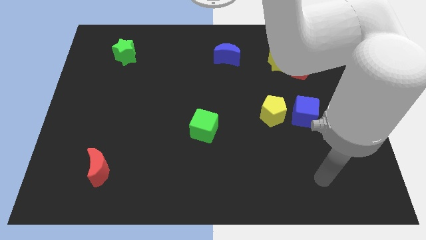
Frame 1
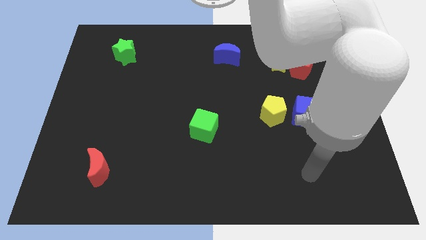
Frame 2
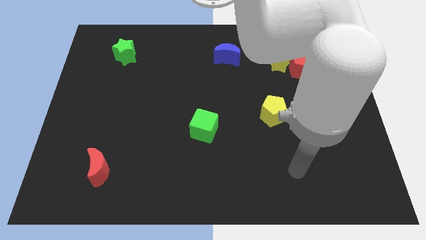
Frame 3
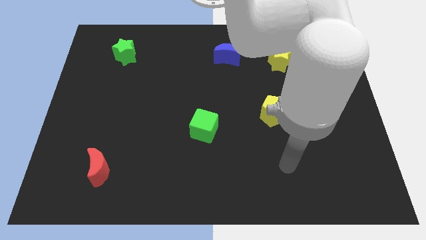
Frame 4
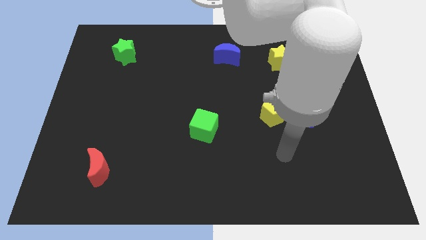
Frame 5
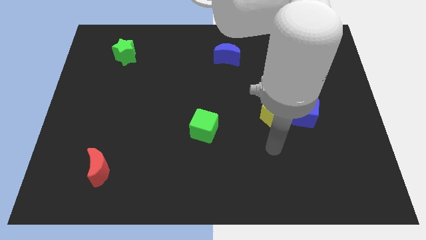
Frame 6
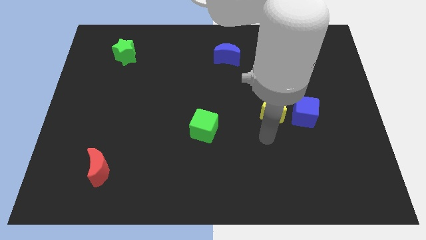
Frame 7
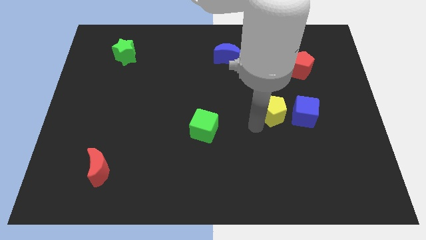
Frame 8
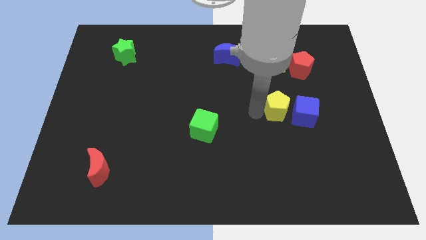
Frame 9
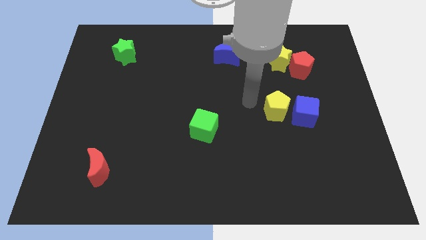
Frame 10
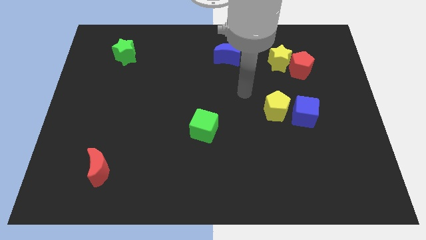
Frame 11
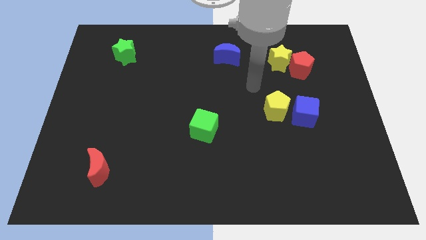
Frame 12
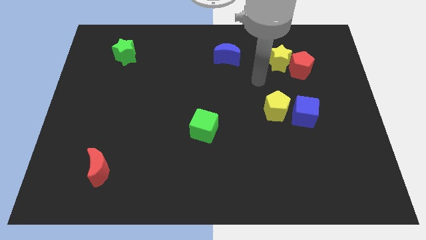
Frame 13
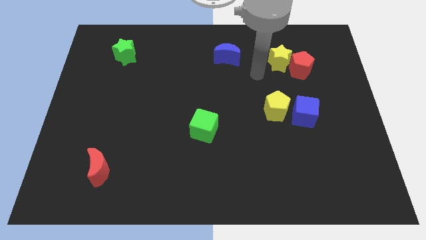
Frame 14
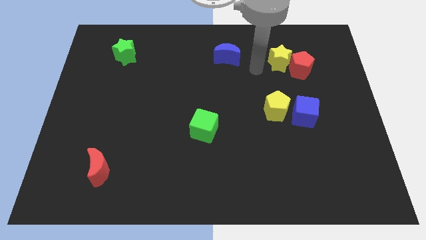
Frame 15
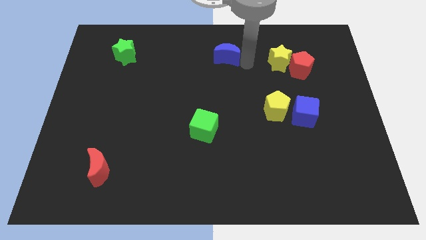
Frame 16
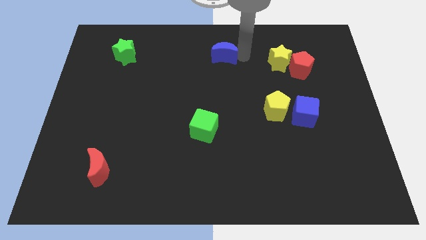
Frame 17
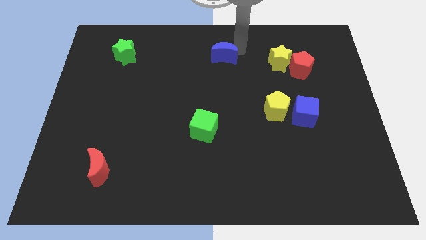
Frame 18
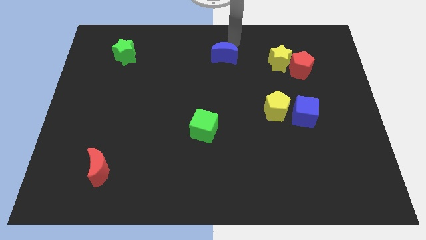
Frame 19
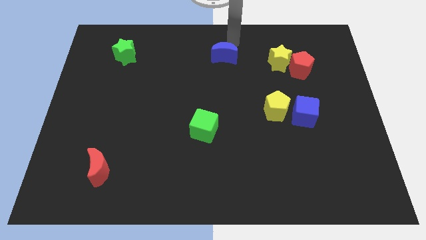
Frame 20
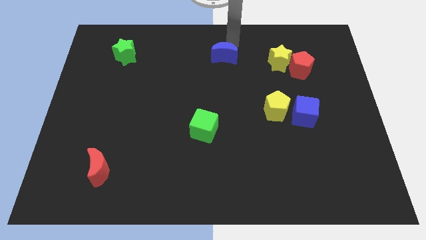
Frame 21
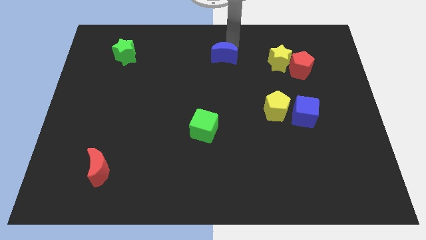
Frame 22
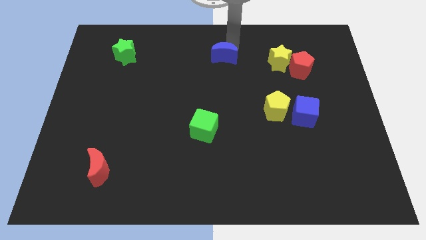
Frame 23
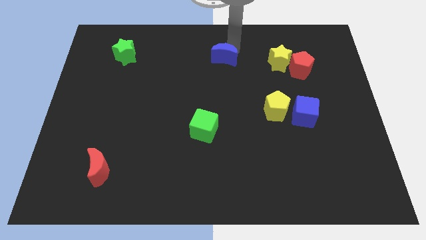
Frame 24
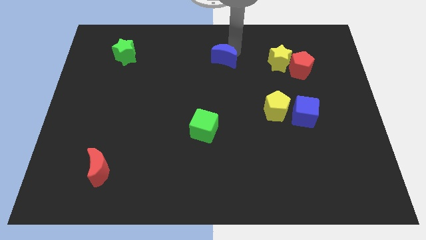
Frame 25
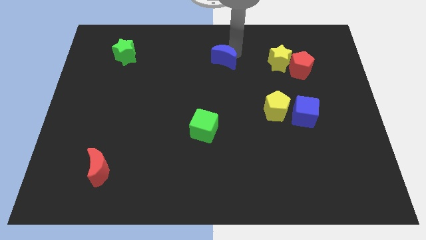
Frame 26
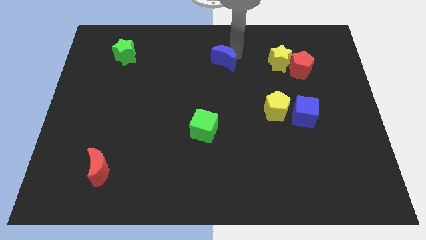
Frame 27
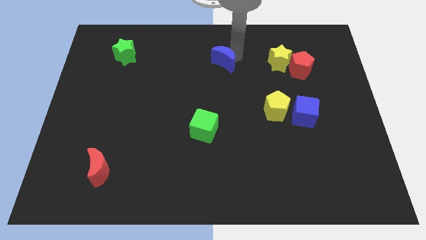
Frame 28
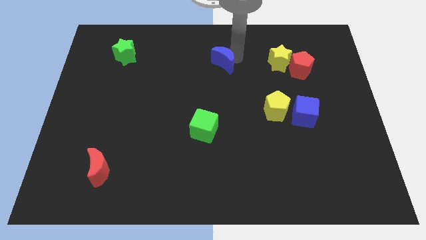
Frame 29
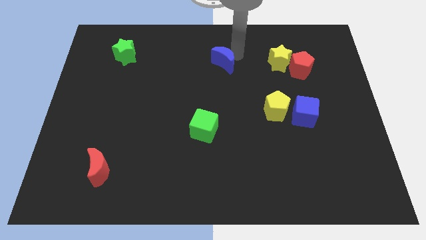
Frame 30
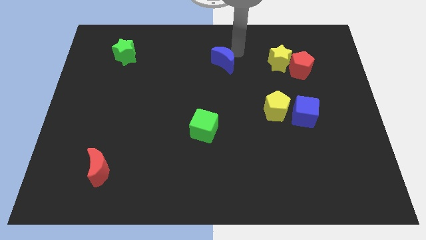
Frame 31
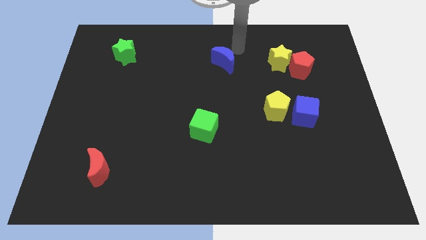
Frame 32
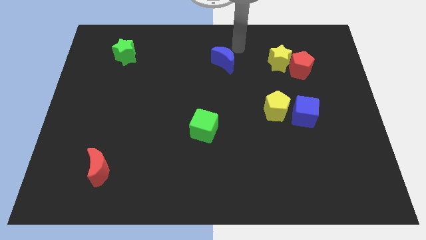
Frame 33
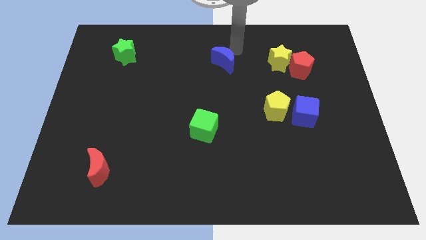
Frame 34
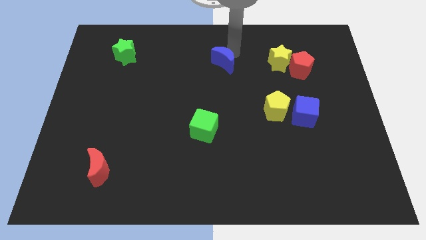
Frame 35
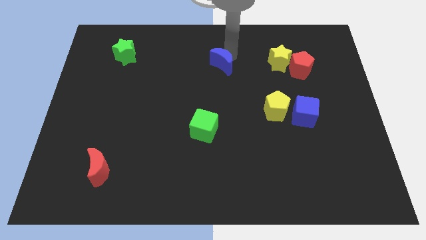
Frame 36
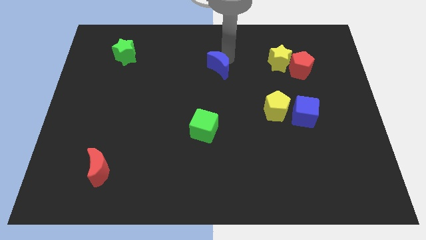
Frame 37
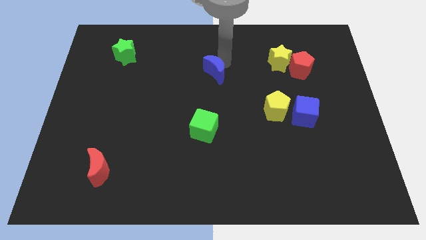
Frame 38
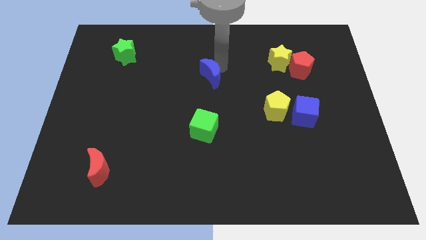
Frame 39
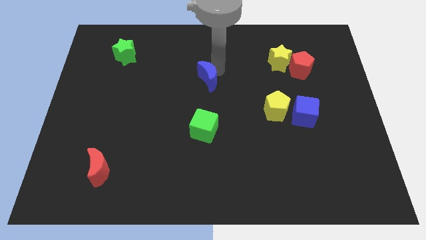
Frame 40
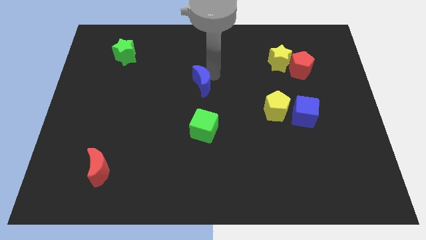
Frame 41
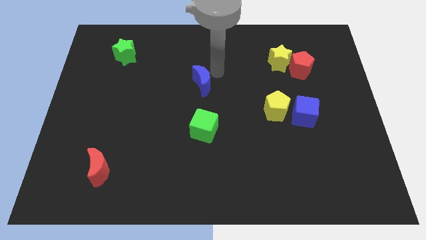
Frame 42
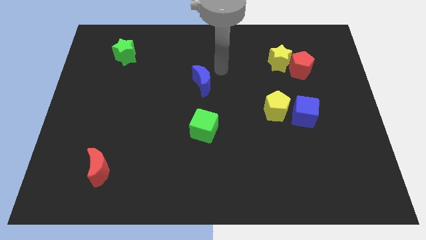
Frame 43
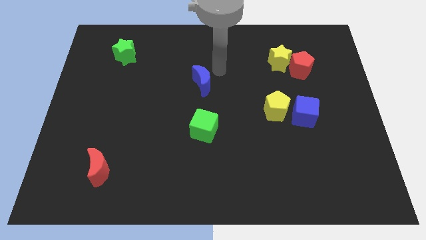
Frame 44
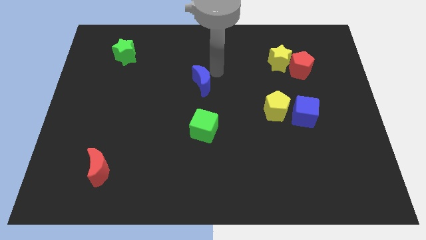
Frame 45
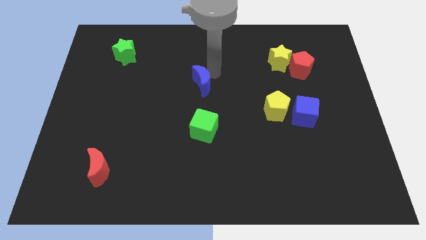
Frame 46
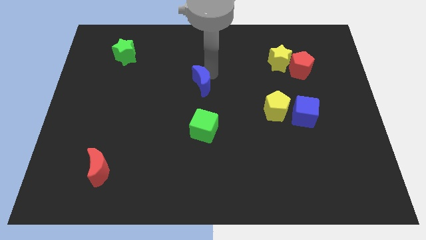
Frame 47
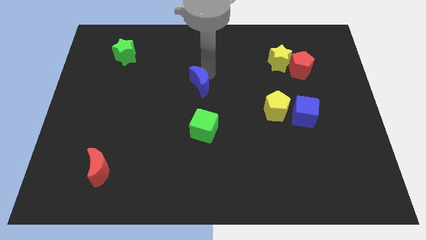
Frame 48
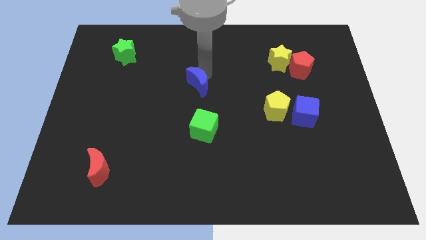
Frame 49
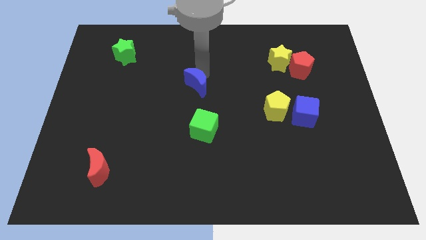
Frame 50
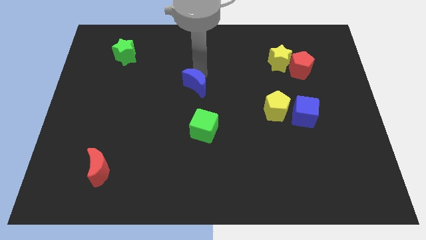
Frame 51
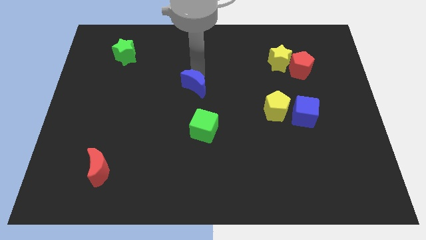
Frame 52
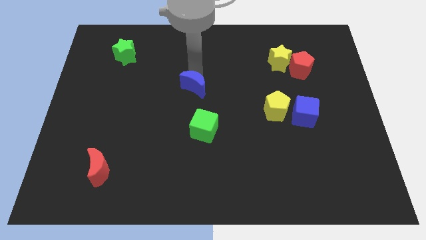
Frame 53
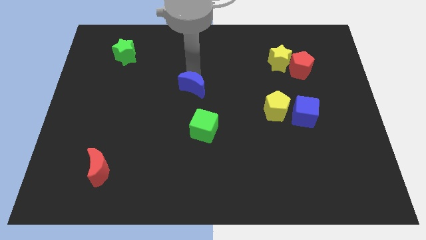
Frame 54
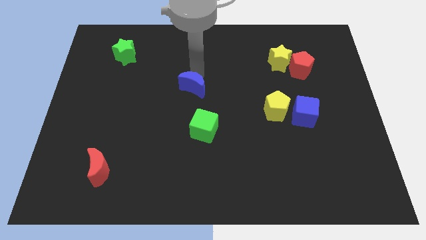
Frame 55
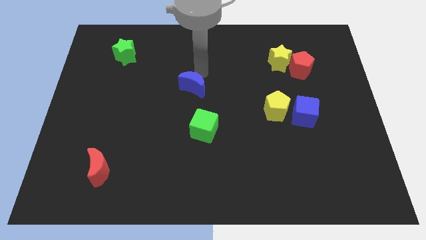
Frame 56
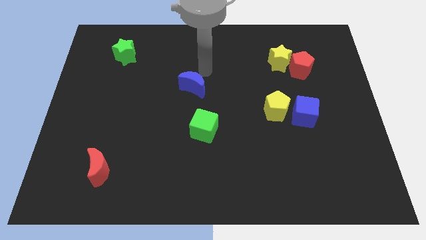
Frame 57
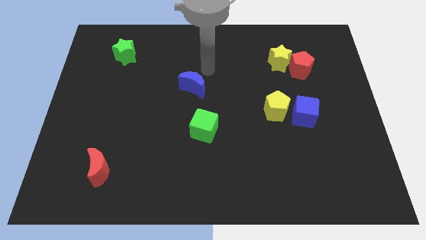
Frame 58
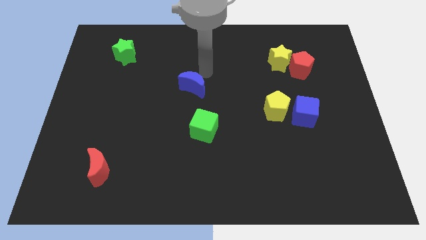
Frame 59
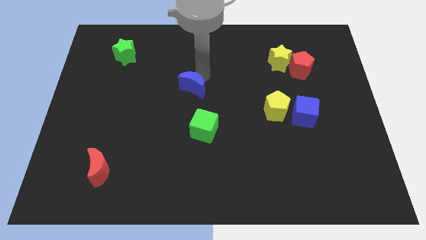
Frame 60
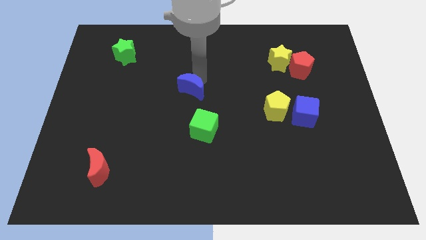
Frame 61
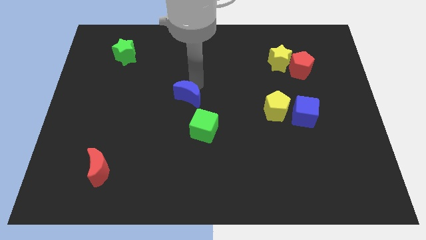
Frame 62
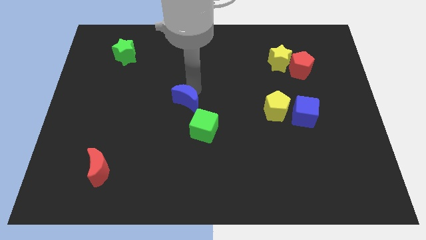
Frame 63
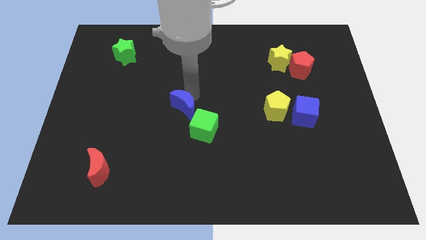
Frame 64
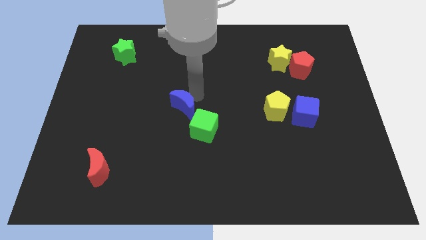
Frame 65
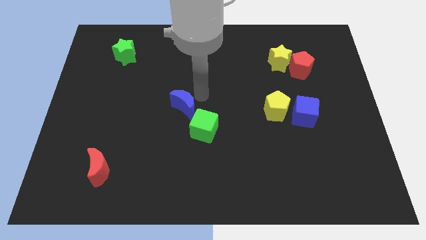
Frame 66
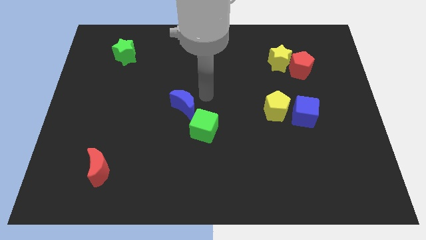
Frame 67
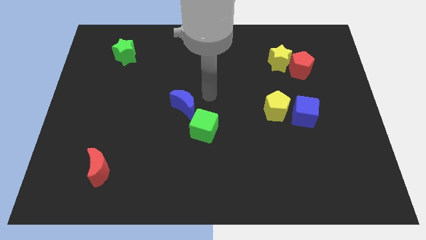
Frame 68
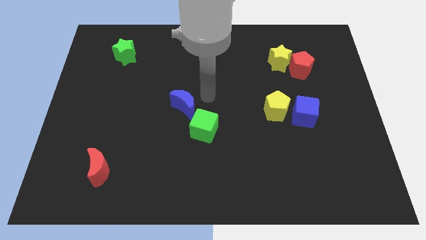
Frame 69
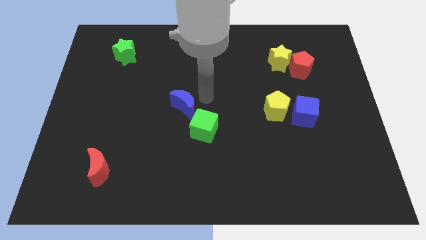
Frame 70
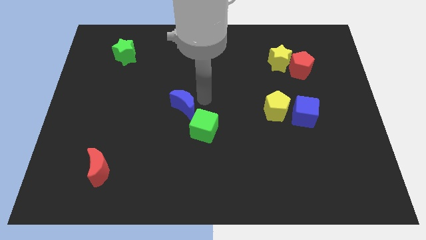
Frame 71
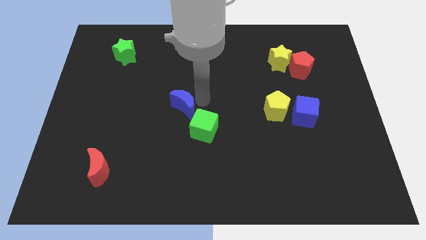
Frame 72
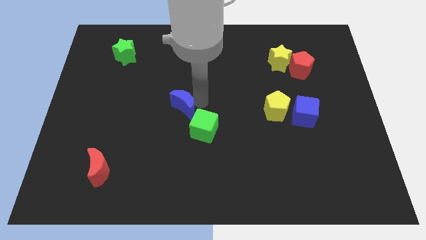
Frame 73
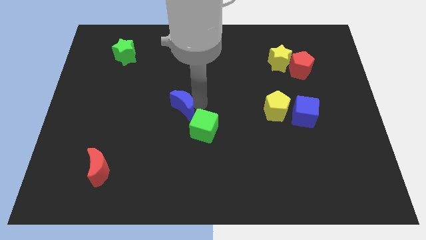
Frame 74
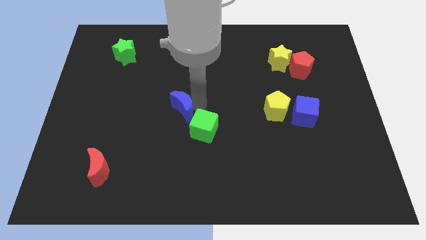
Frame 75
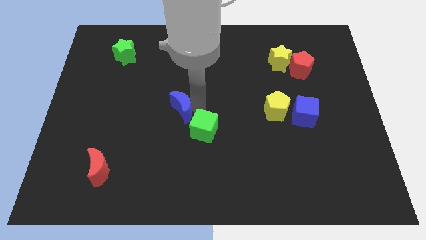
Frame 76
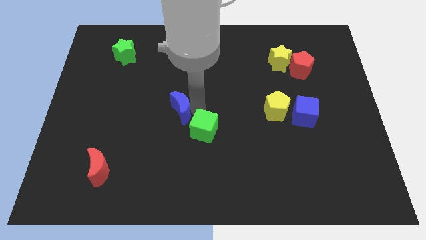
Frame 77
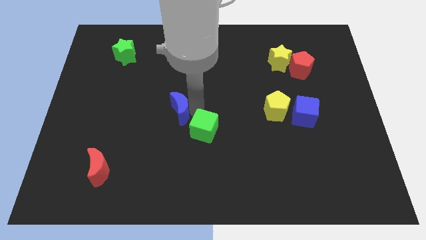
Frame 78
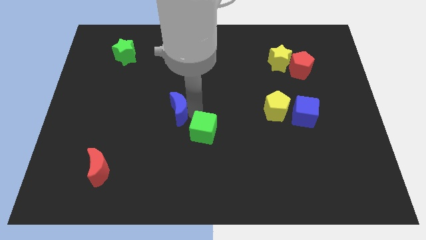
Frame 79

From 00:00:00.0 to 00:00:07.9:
move the blue moon down and then left

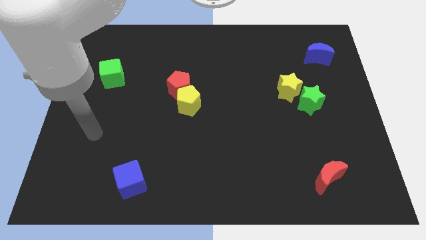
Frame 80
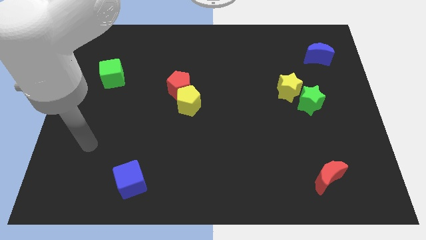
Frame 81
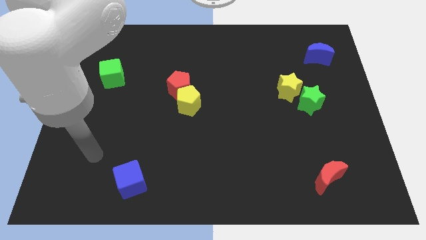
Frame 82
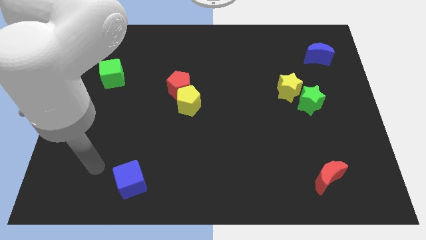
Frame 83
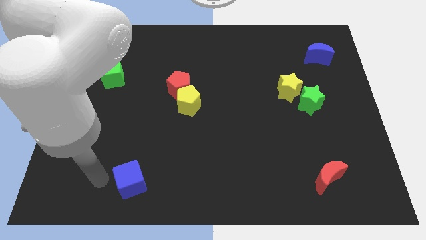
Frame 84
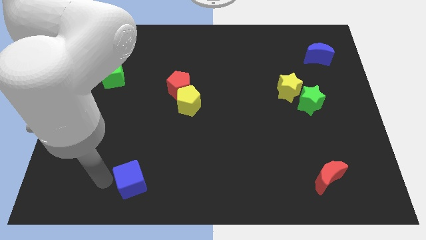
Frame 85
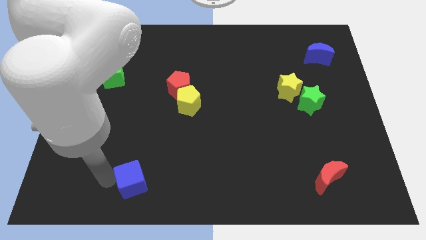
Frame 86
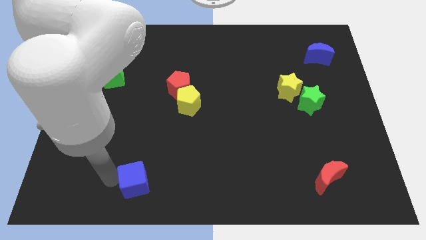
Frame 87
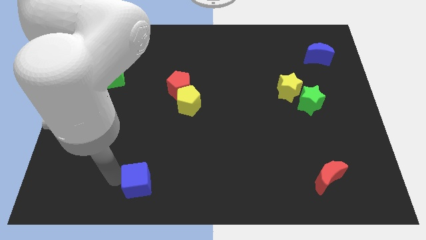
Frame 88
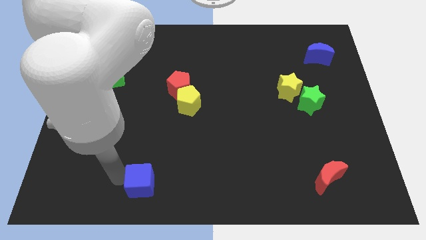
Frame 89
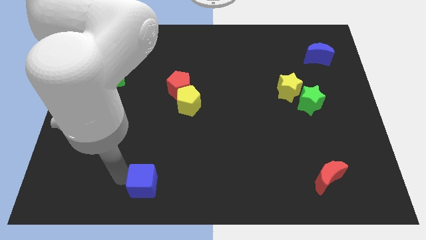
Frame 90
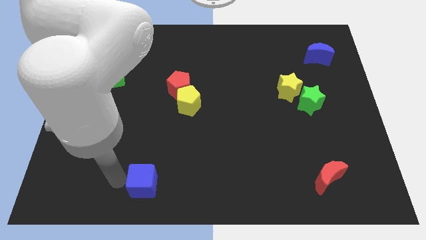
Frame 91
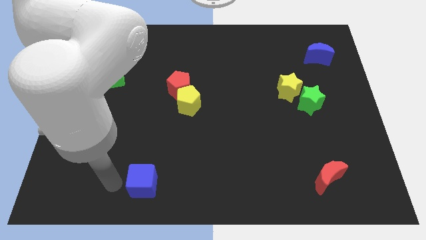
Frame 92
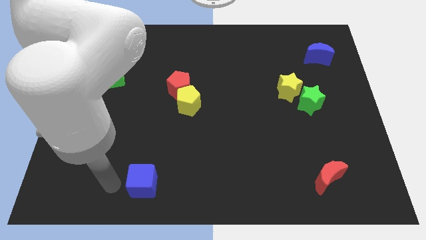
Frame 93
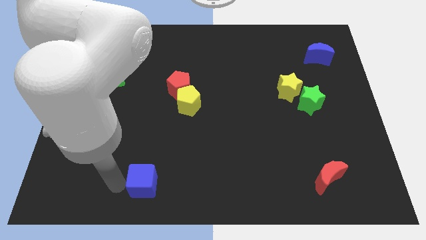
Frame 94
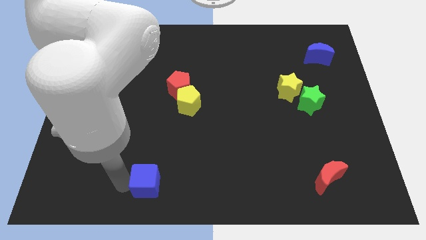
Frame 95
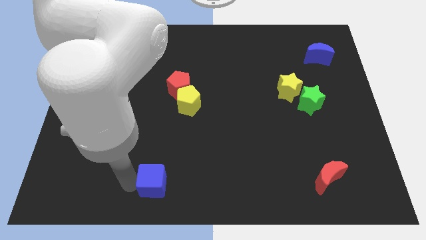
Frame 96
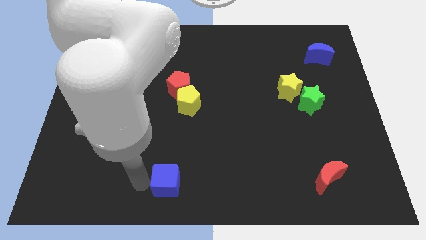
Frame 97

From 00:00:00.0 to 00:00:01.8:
push the blue cube a little right
